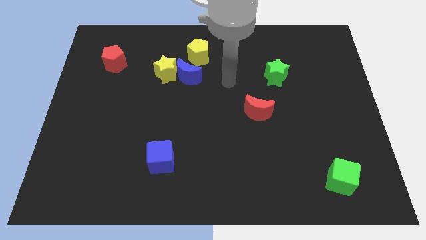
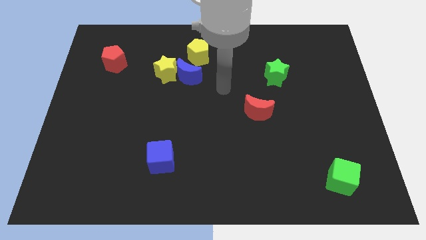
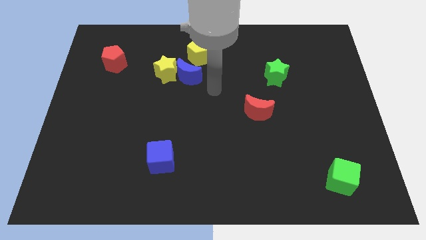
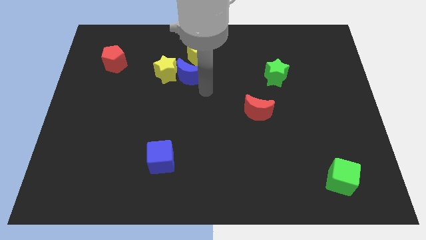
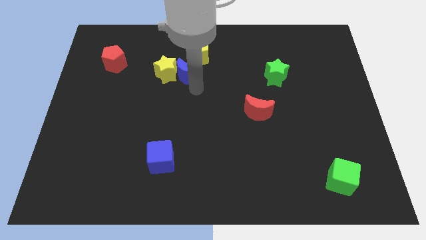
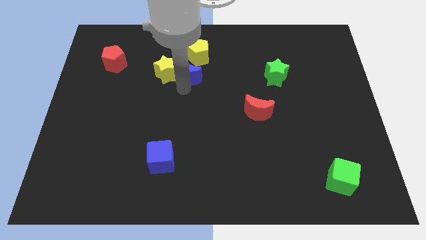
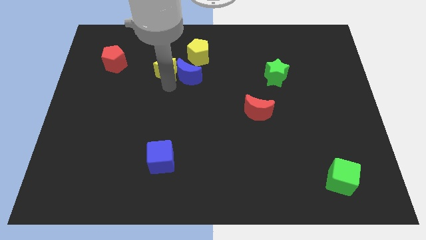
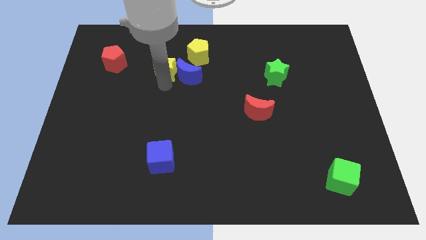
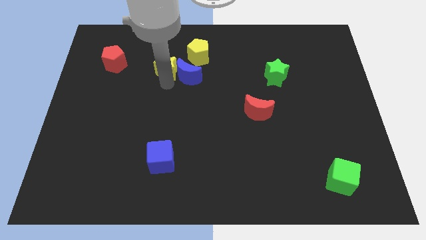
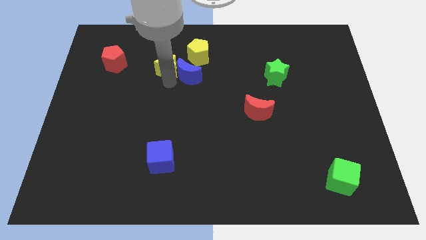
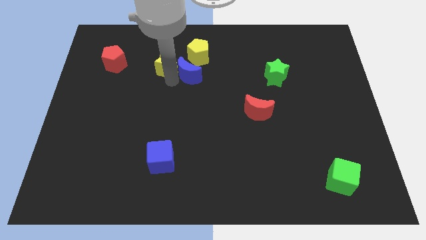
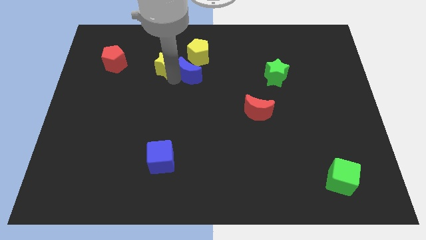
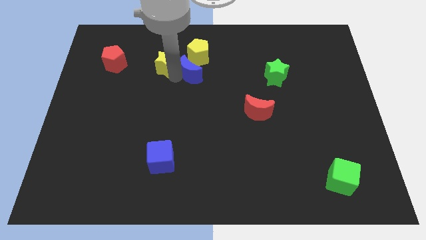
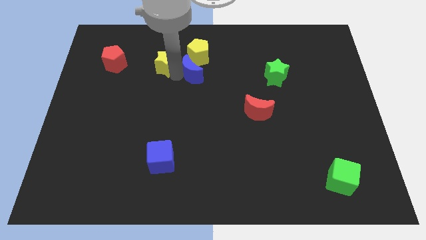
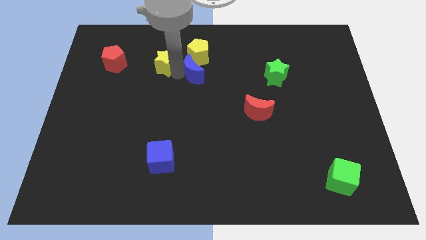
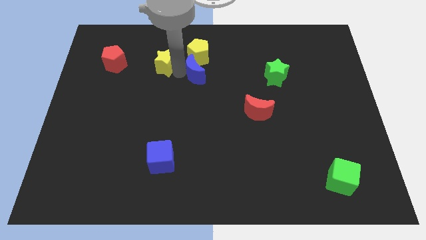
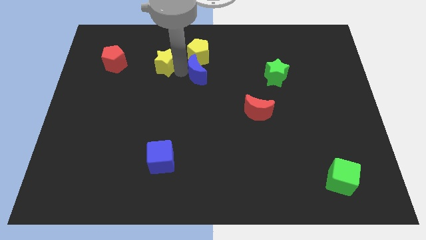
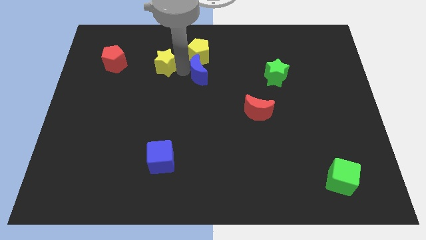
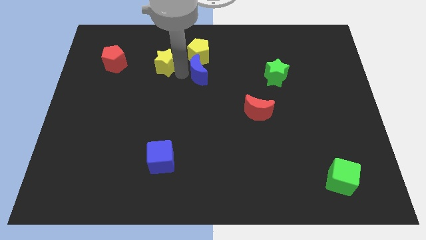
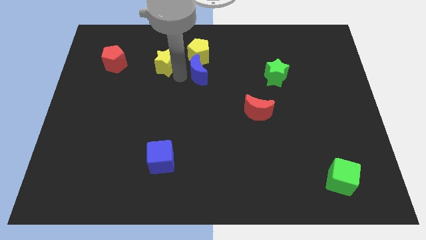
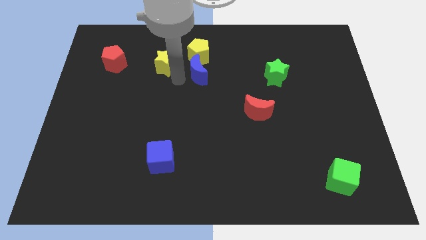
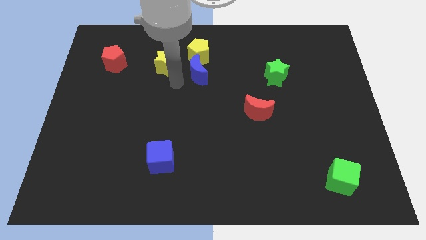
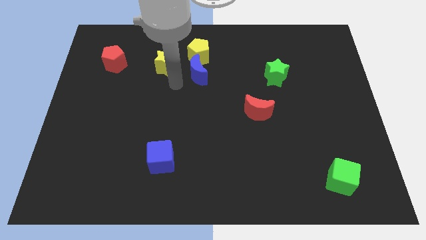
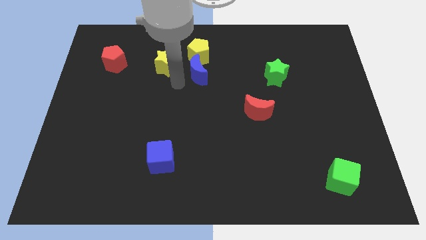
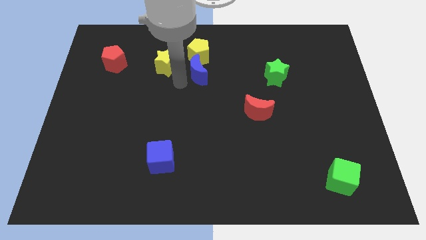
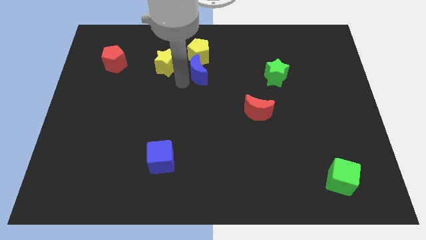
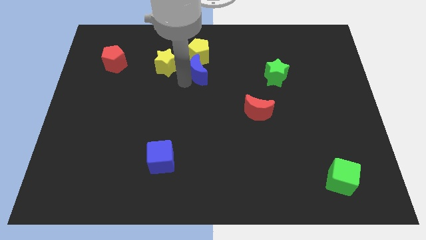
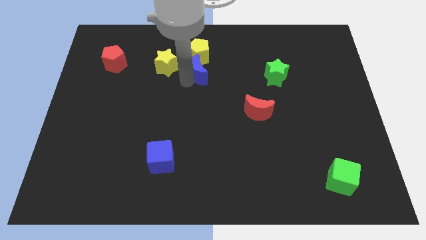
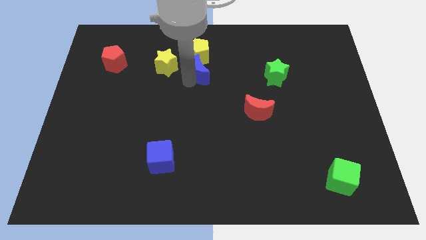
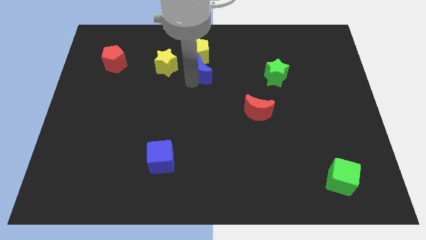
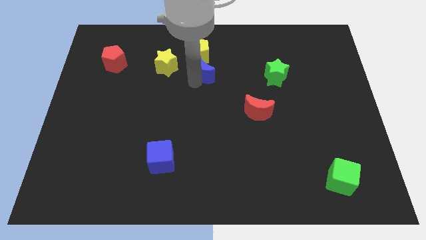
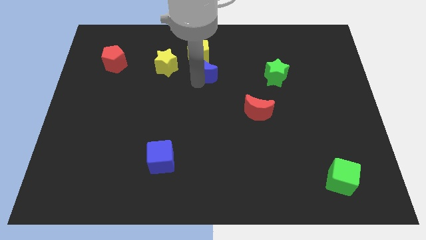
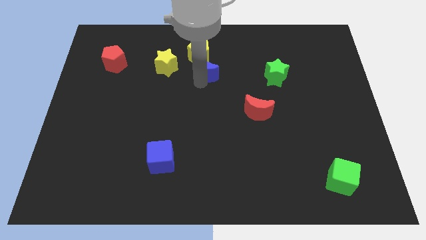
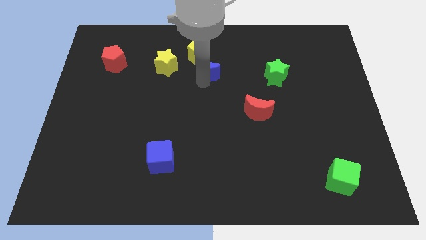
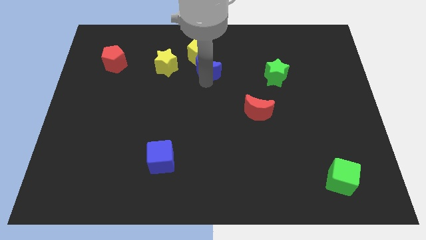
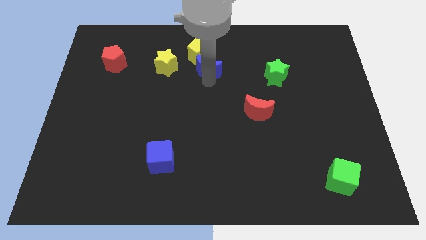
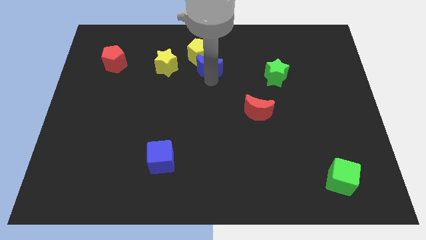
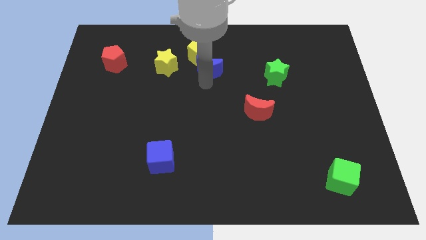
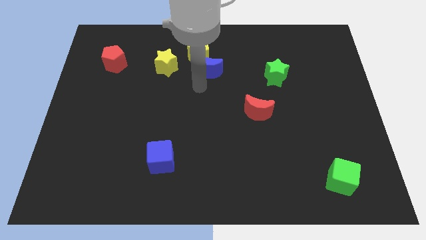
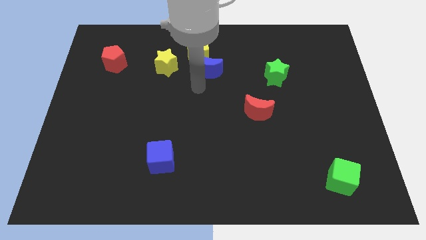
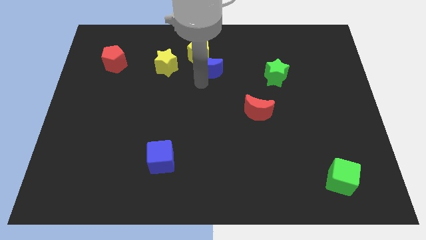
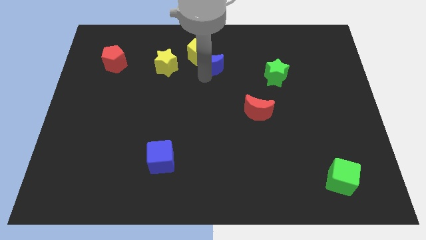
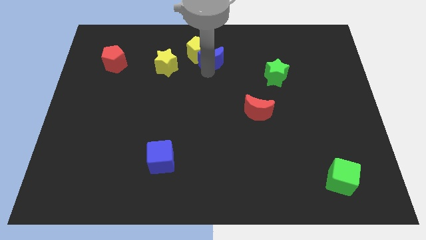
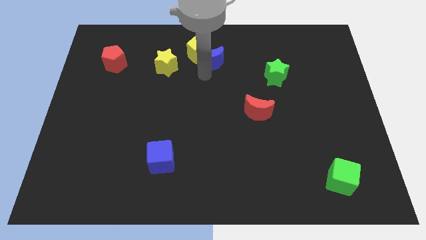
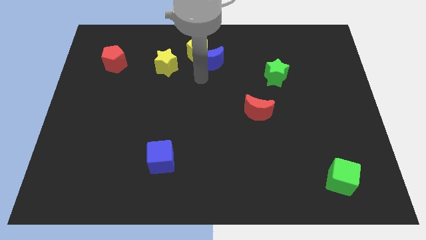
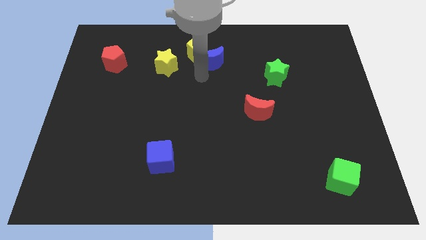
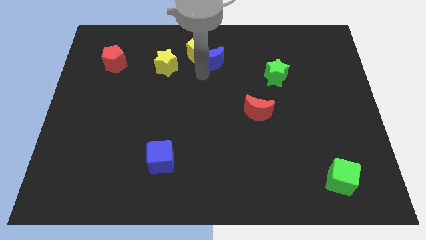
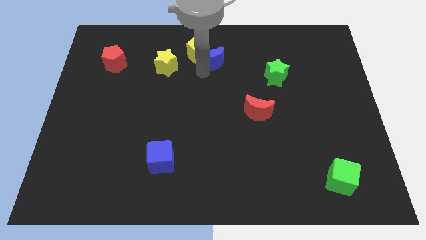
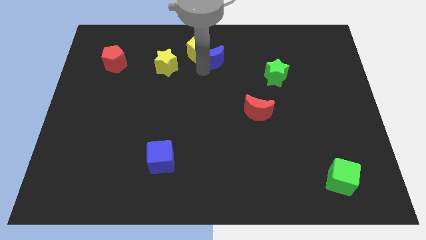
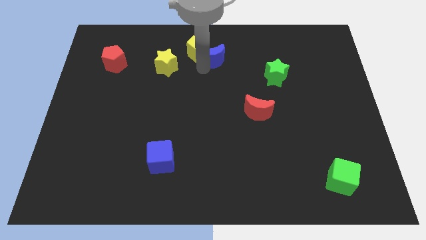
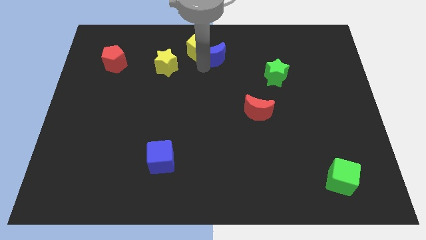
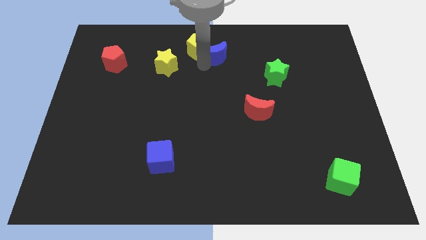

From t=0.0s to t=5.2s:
push the blue moon to the top side

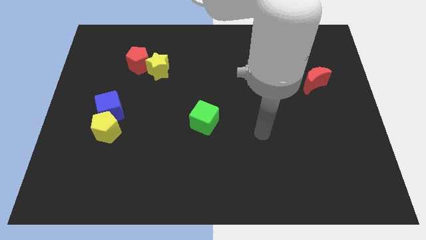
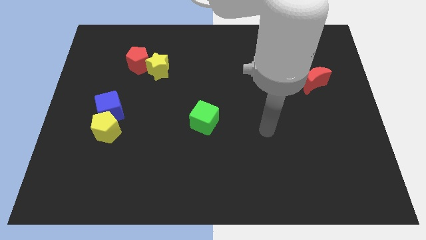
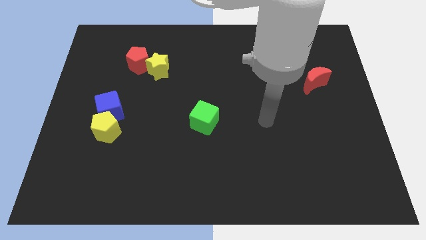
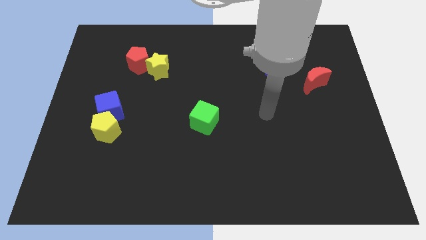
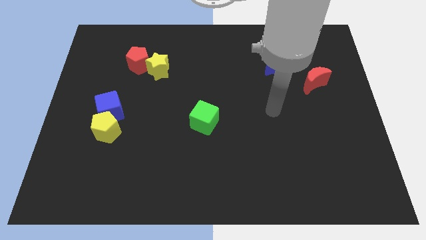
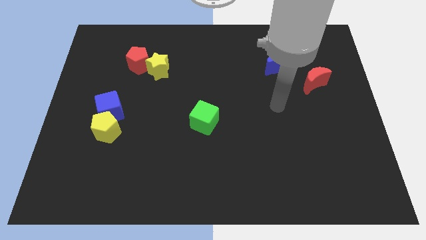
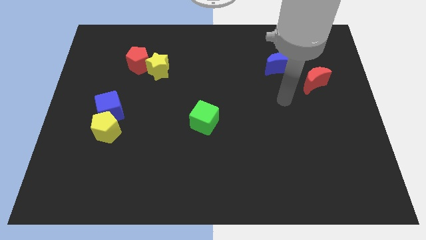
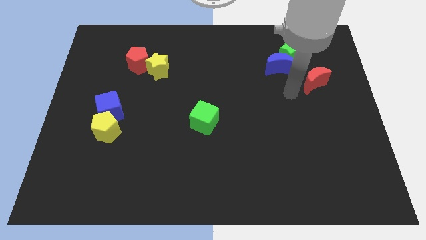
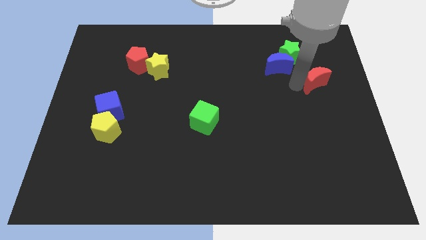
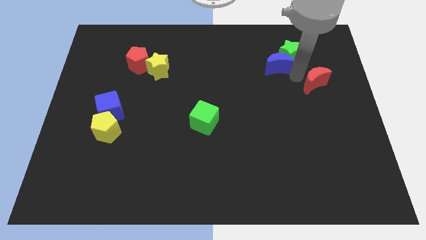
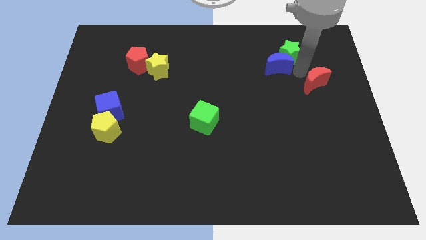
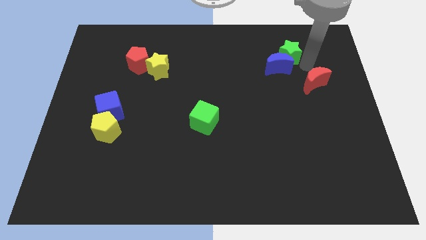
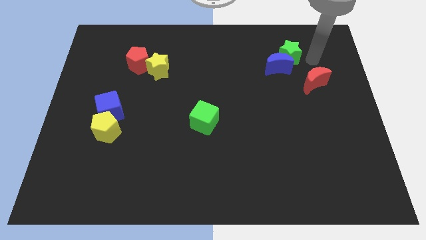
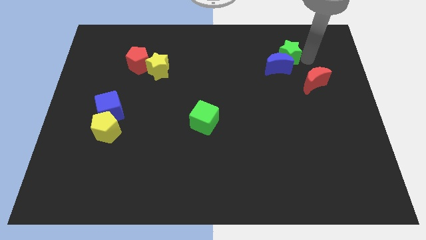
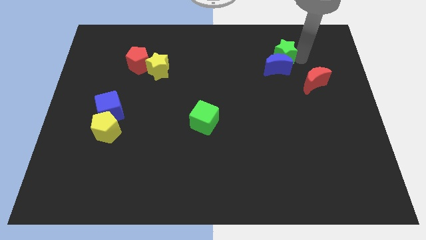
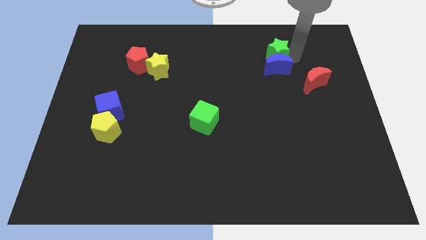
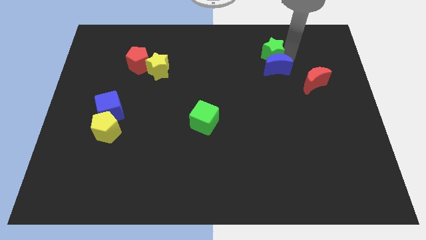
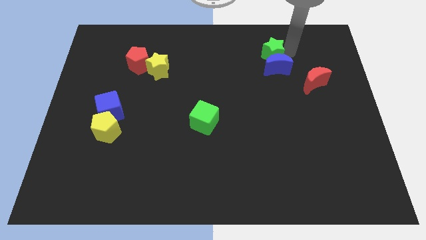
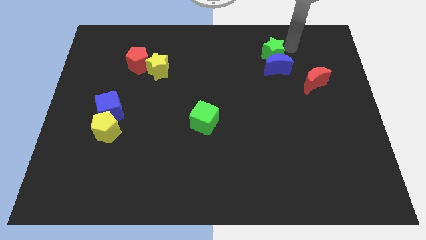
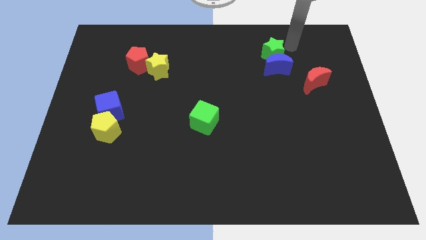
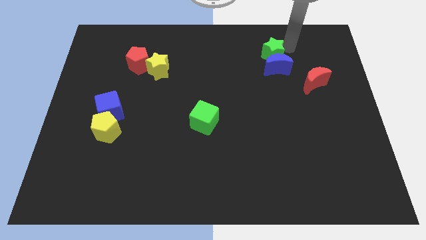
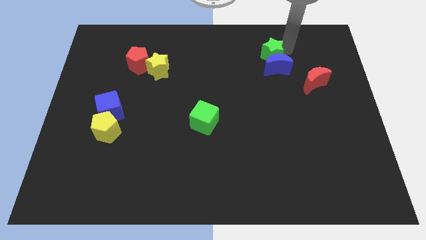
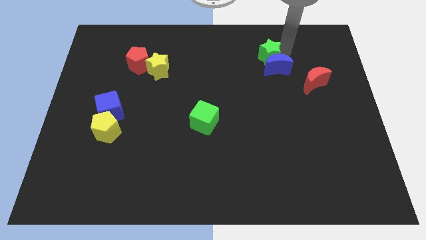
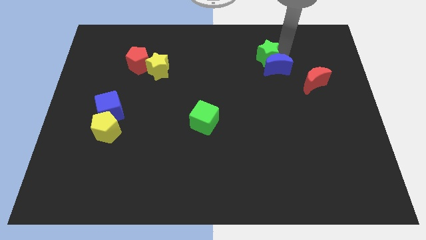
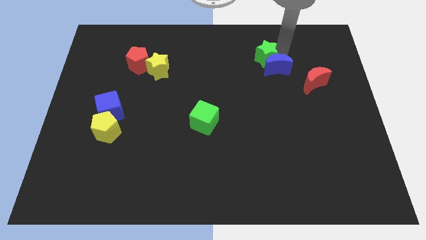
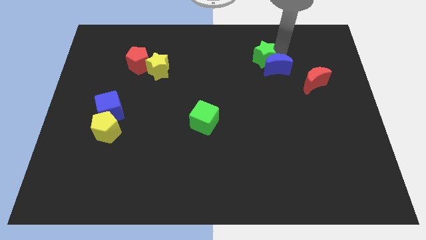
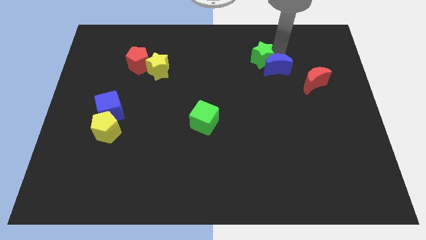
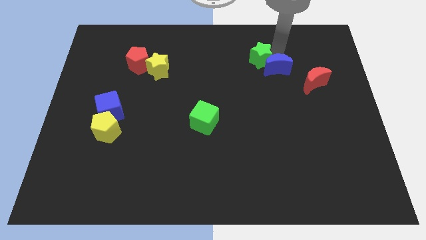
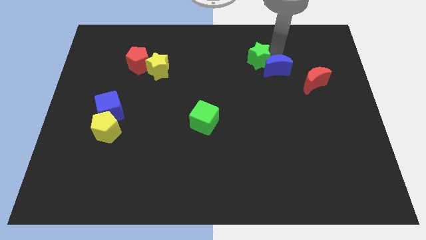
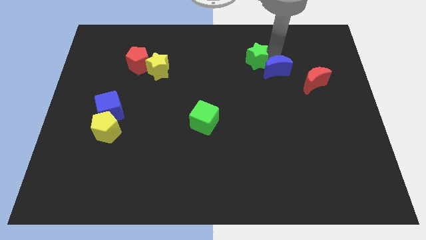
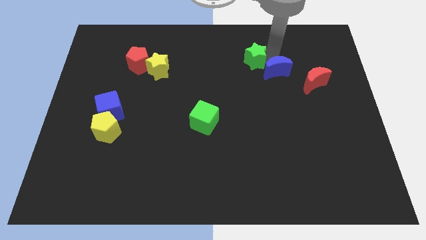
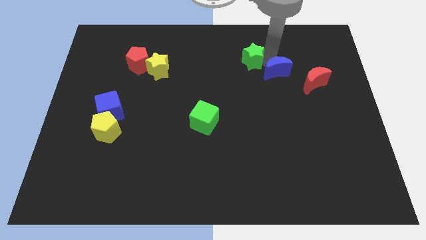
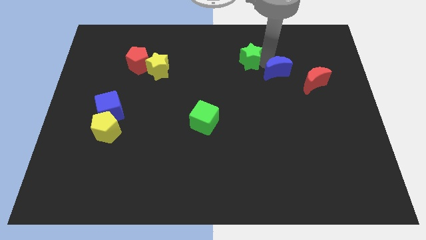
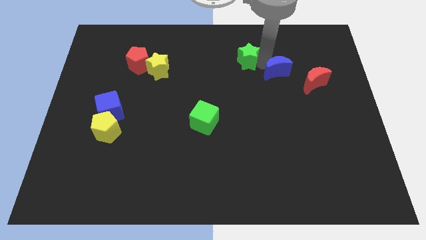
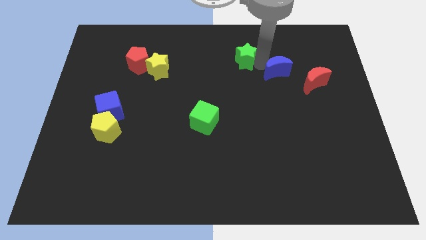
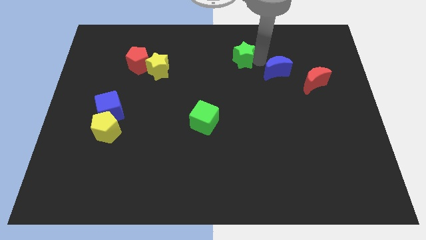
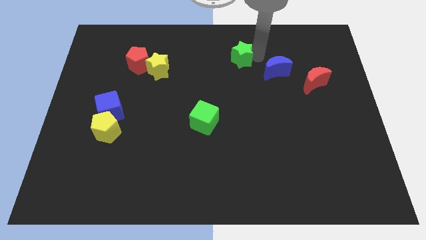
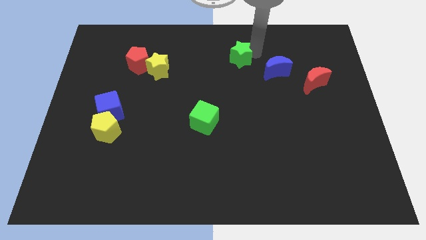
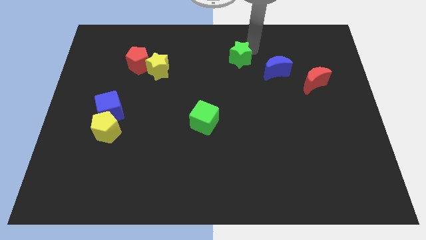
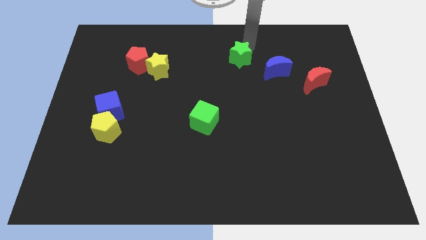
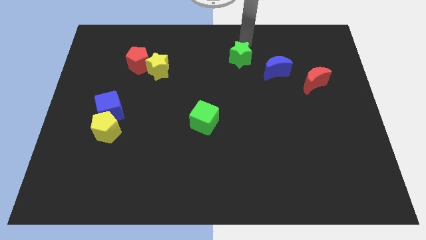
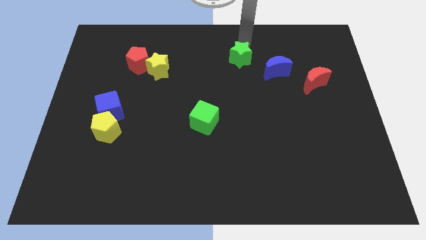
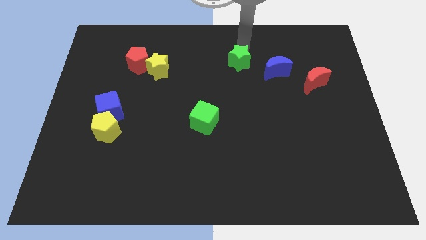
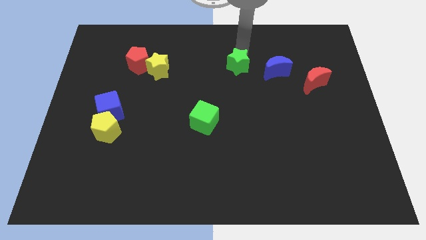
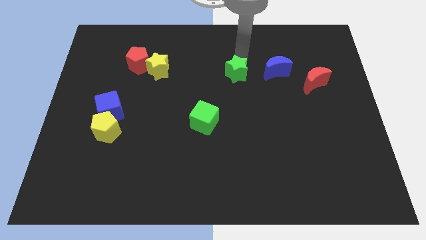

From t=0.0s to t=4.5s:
put the green star to the center of the board
